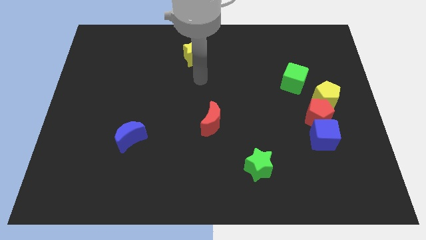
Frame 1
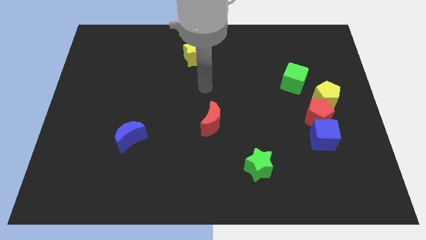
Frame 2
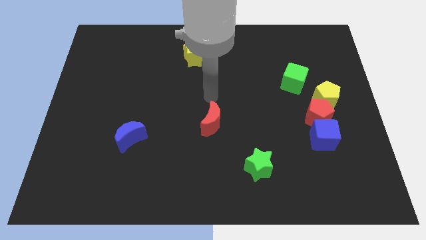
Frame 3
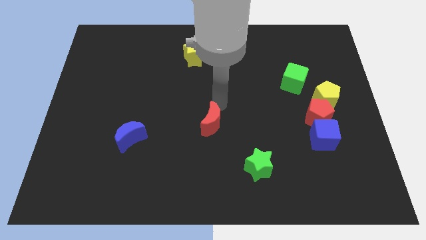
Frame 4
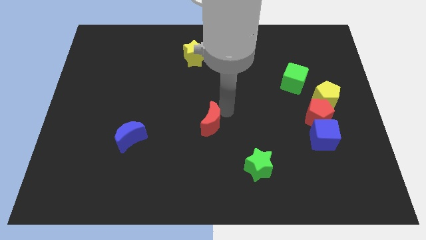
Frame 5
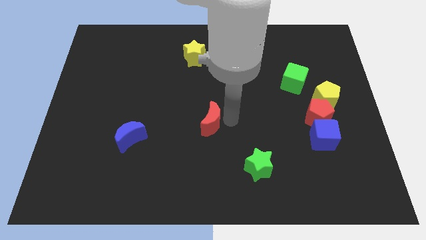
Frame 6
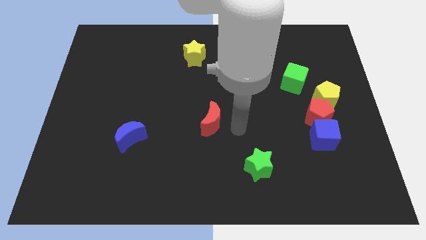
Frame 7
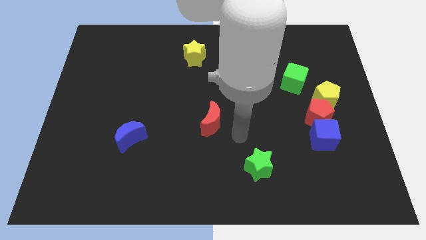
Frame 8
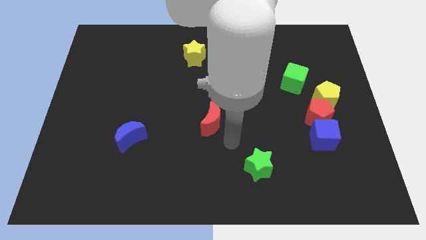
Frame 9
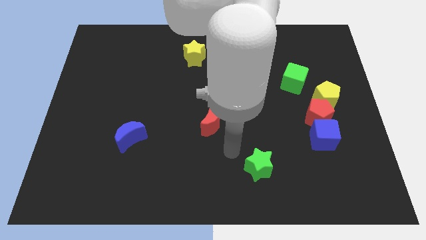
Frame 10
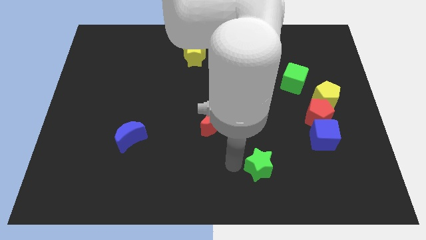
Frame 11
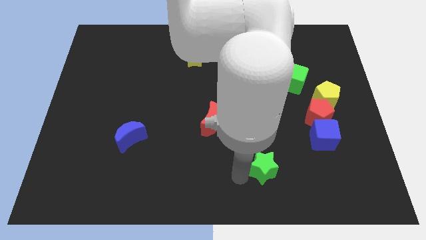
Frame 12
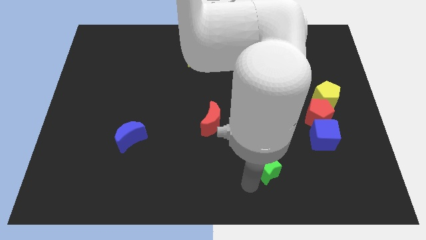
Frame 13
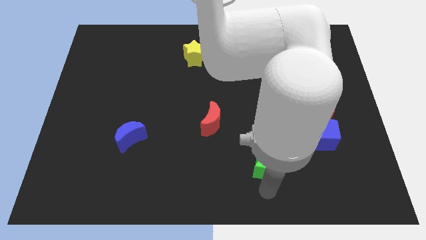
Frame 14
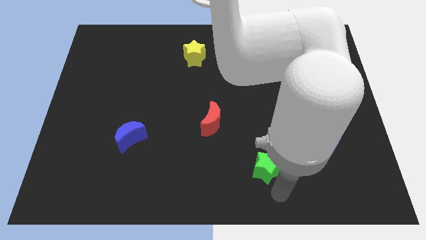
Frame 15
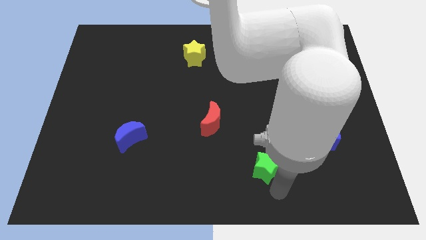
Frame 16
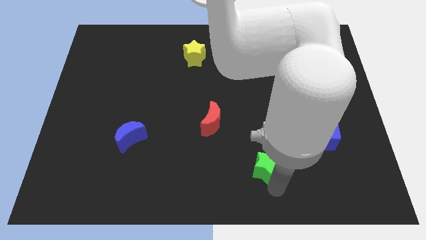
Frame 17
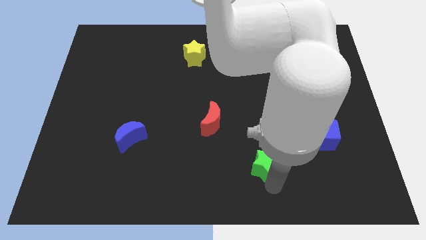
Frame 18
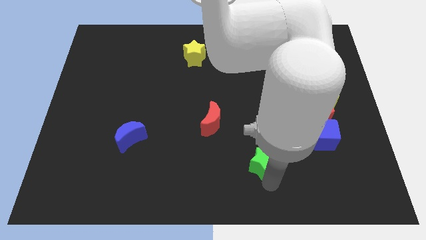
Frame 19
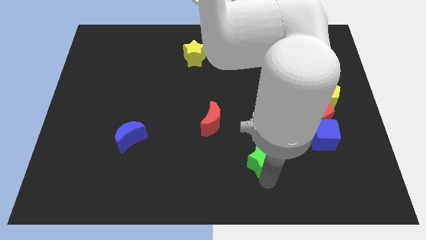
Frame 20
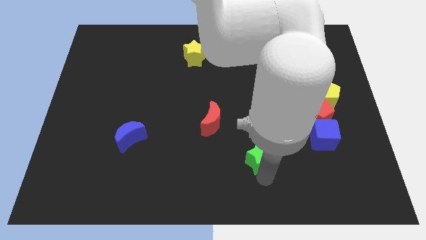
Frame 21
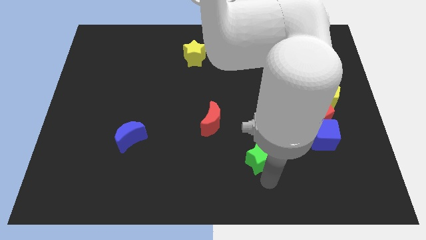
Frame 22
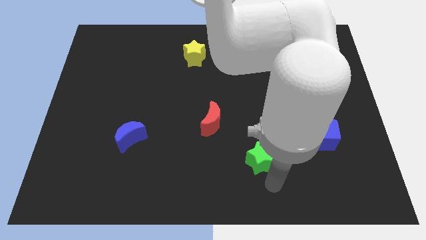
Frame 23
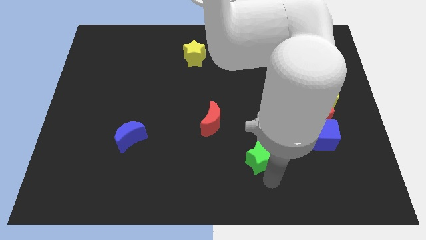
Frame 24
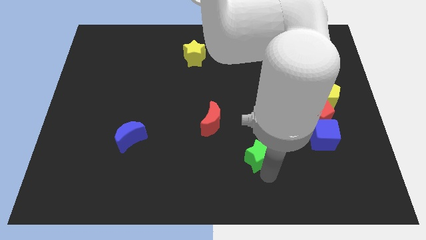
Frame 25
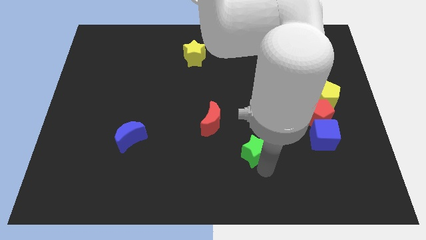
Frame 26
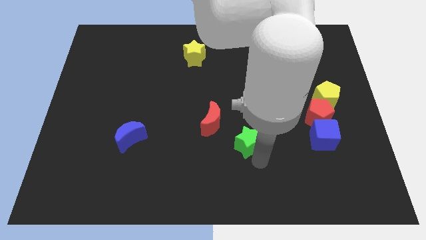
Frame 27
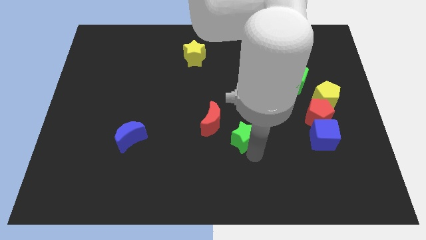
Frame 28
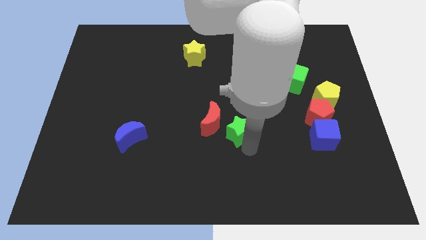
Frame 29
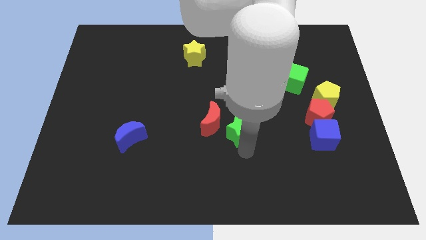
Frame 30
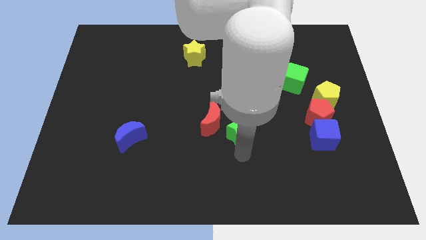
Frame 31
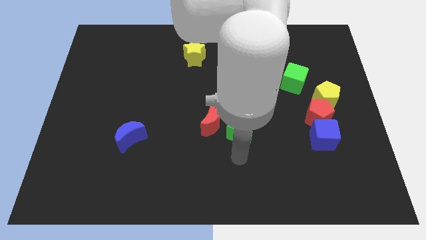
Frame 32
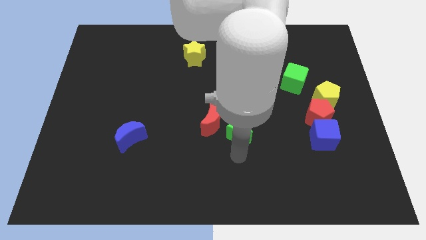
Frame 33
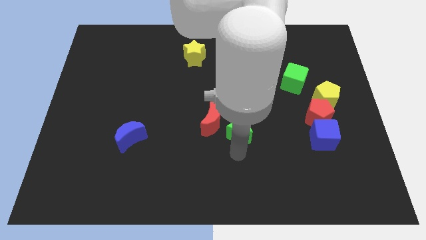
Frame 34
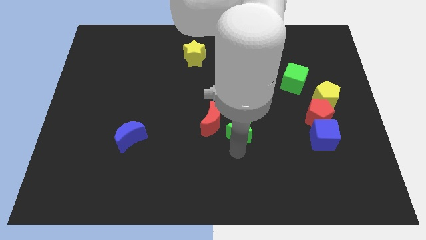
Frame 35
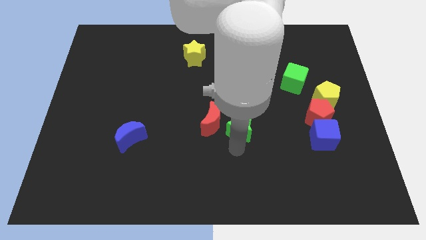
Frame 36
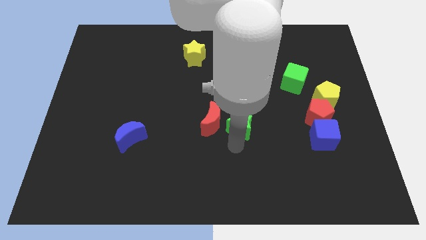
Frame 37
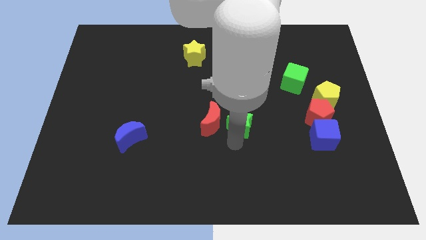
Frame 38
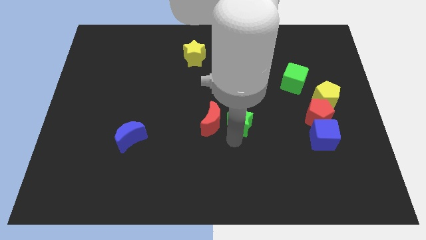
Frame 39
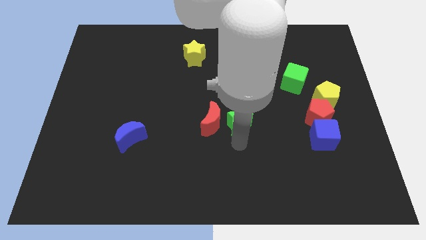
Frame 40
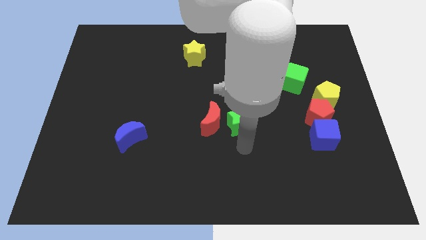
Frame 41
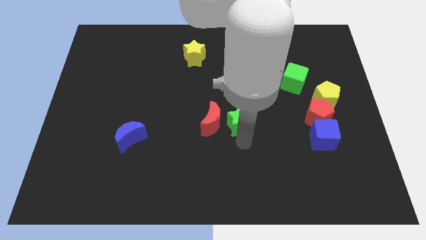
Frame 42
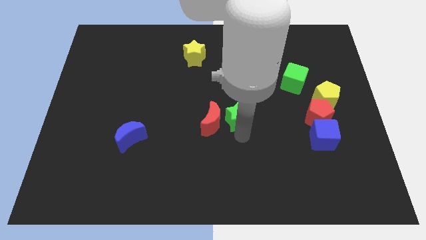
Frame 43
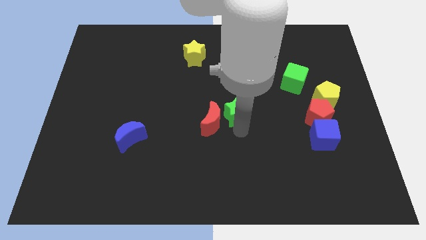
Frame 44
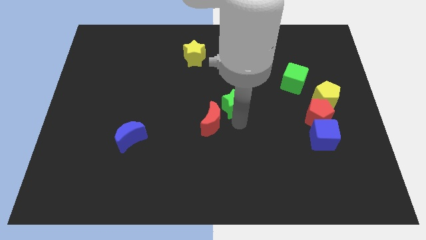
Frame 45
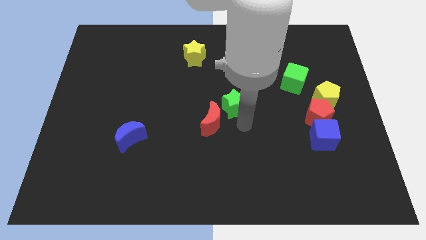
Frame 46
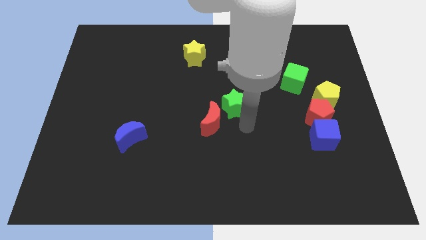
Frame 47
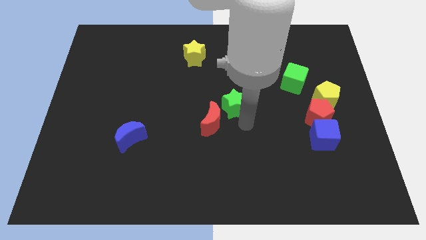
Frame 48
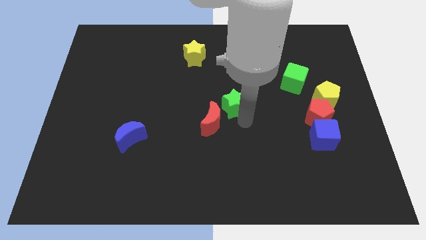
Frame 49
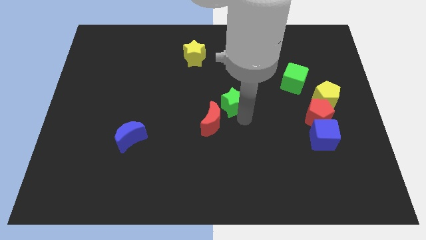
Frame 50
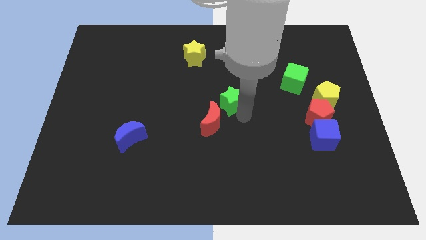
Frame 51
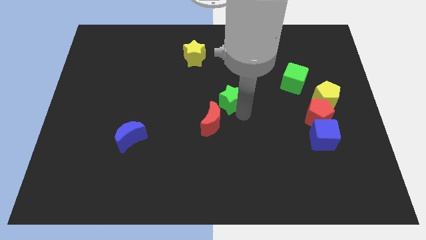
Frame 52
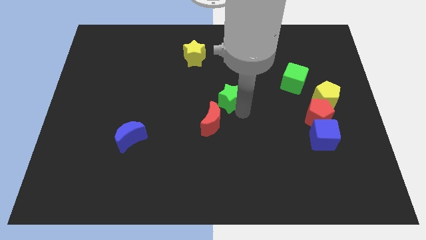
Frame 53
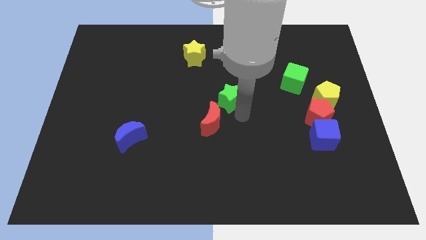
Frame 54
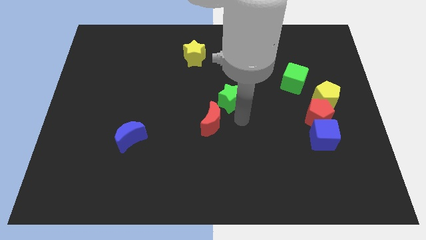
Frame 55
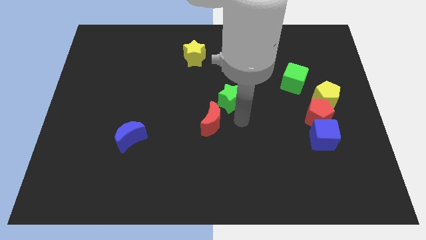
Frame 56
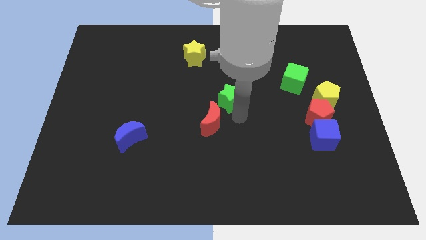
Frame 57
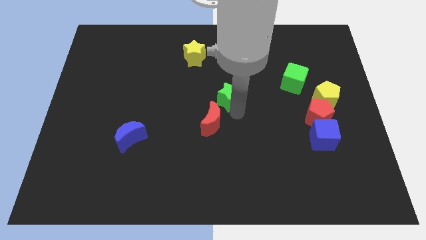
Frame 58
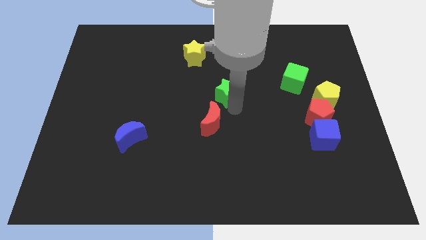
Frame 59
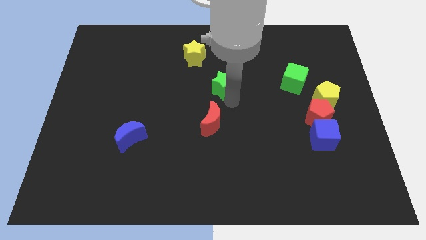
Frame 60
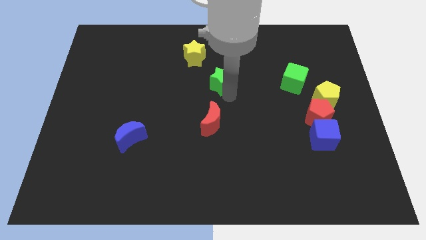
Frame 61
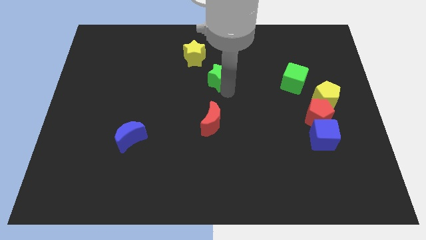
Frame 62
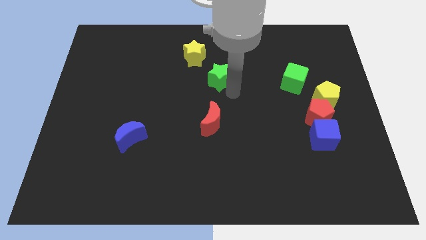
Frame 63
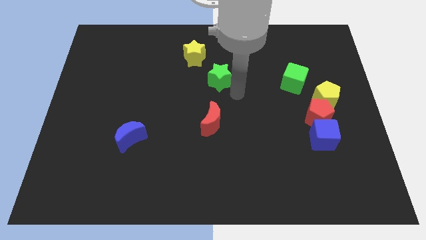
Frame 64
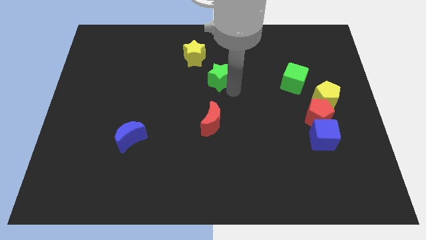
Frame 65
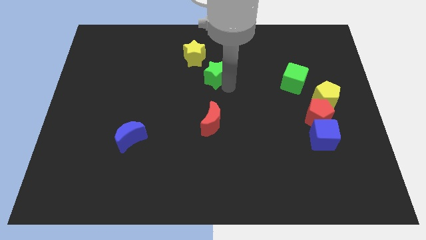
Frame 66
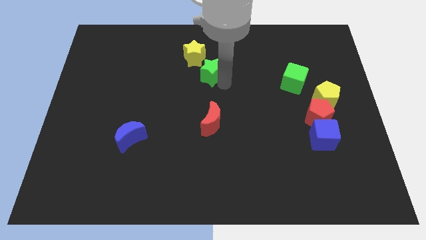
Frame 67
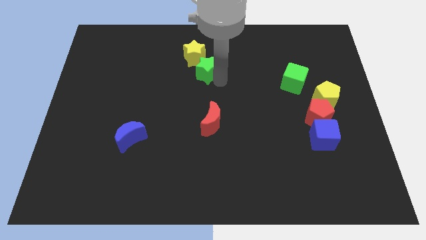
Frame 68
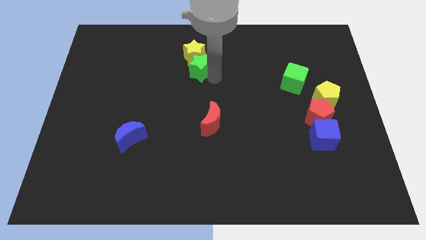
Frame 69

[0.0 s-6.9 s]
slide the green star to the yellow star
